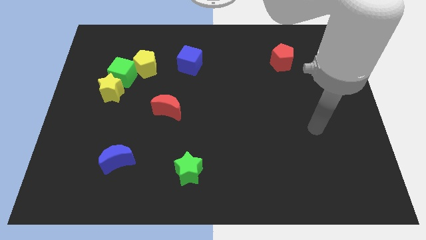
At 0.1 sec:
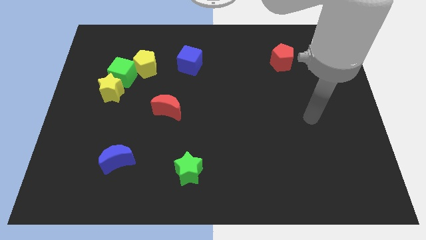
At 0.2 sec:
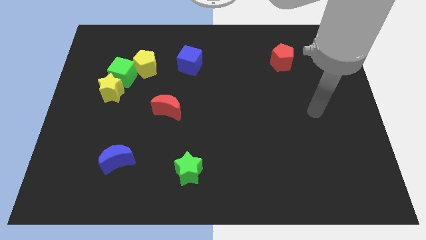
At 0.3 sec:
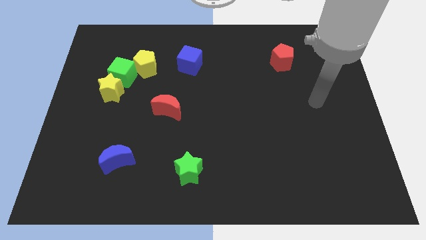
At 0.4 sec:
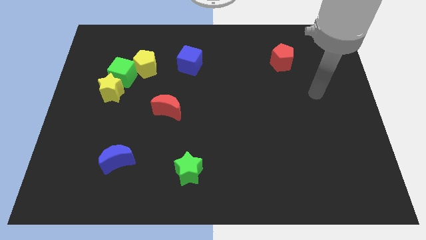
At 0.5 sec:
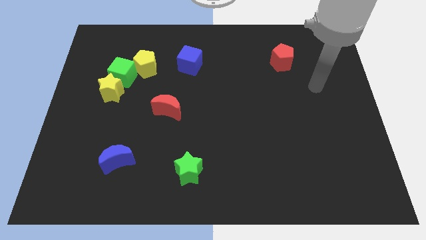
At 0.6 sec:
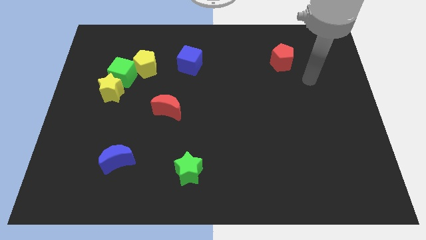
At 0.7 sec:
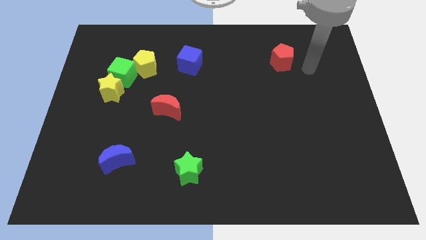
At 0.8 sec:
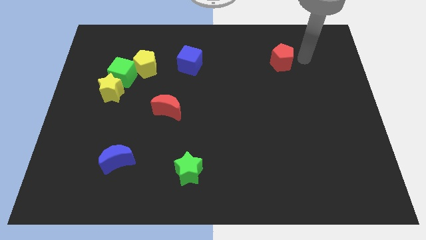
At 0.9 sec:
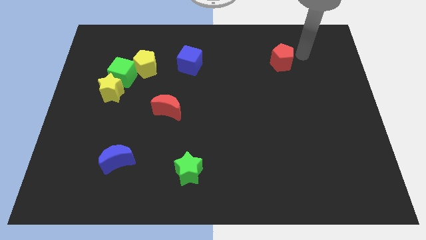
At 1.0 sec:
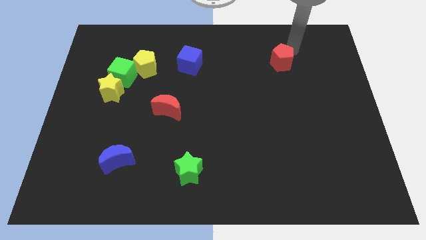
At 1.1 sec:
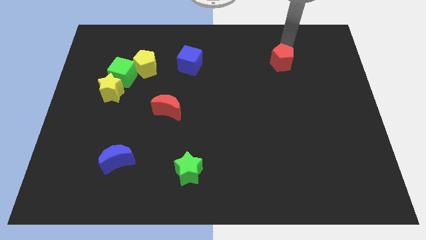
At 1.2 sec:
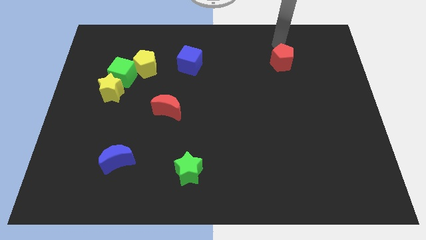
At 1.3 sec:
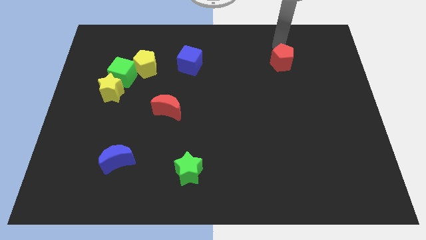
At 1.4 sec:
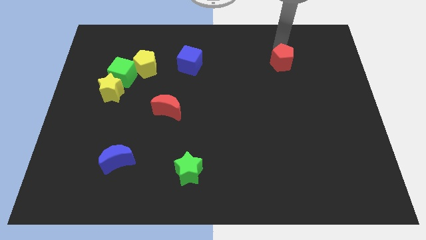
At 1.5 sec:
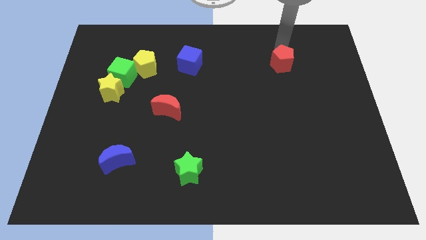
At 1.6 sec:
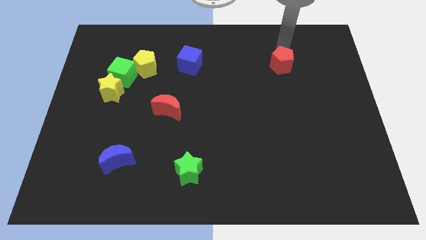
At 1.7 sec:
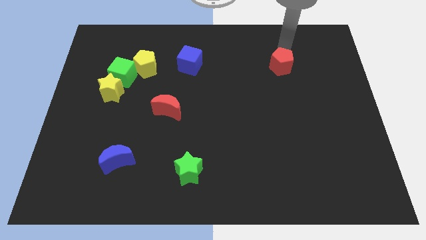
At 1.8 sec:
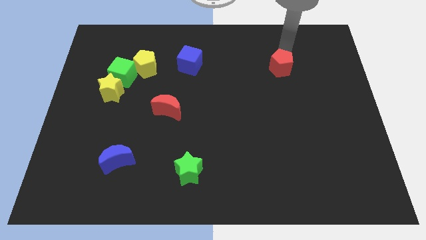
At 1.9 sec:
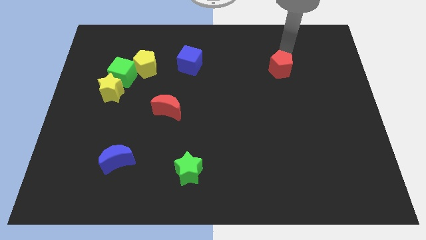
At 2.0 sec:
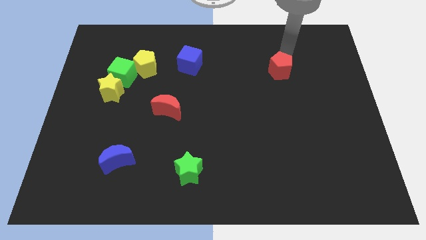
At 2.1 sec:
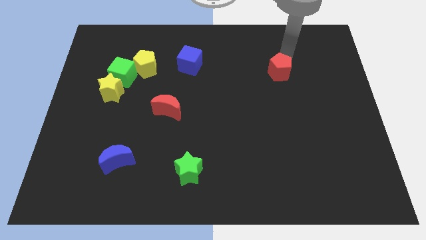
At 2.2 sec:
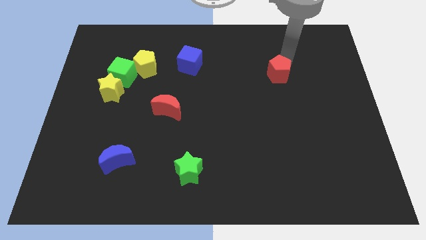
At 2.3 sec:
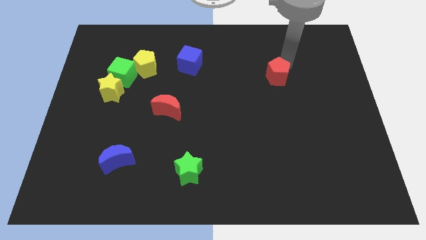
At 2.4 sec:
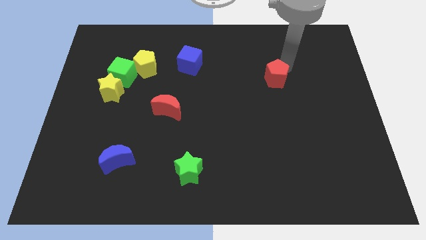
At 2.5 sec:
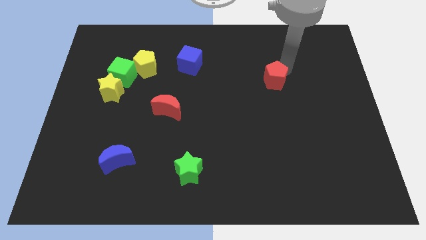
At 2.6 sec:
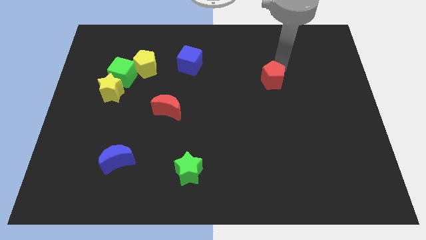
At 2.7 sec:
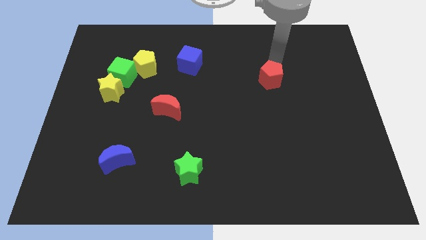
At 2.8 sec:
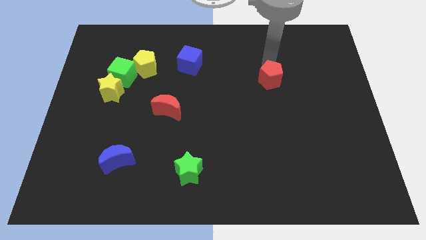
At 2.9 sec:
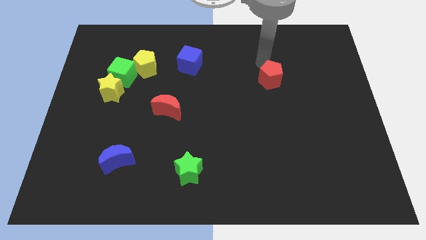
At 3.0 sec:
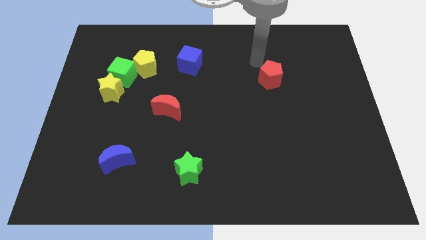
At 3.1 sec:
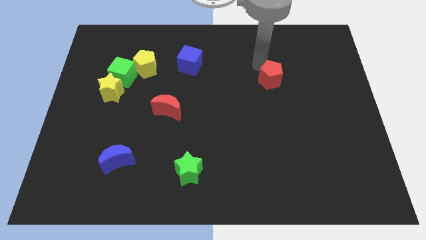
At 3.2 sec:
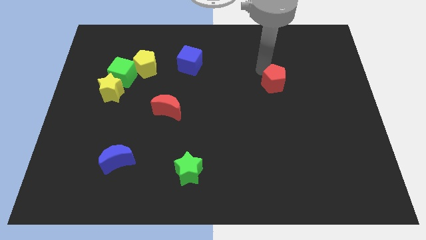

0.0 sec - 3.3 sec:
push the red pentagon down slightly

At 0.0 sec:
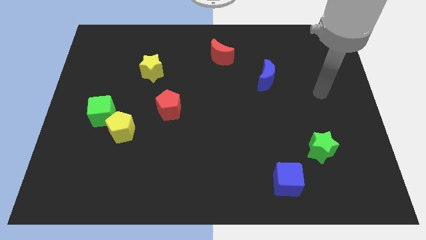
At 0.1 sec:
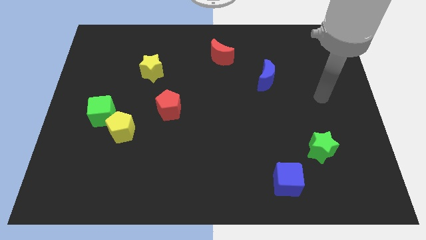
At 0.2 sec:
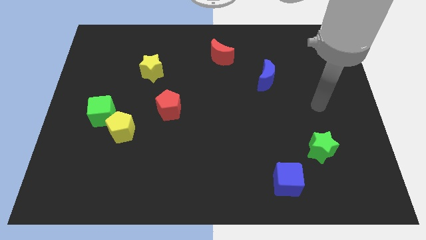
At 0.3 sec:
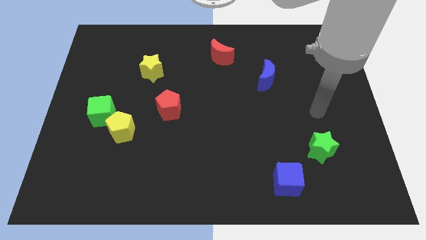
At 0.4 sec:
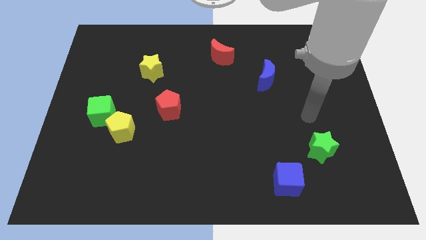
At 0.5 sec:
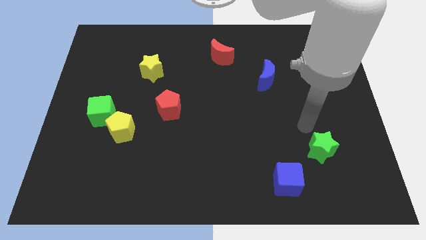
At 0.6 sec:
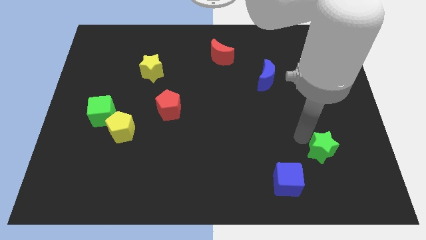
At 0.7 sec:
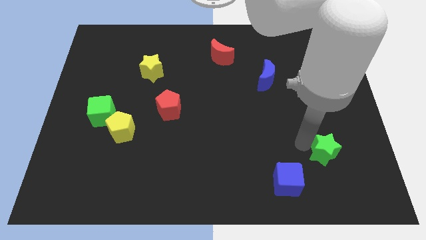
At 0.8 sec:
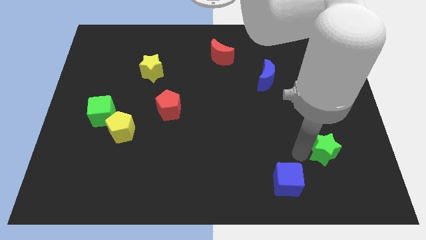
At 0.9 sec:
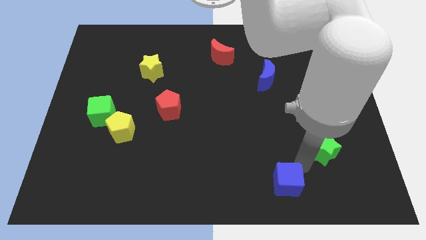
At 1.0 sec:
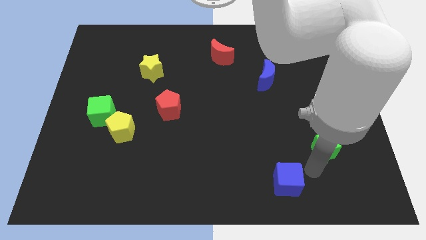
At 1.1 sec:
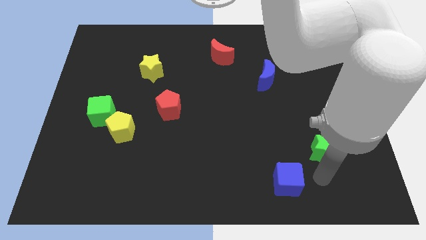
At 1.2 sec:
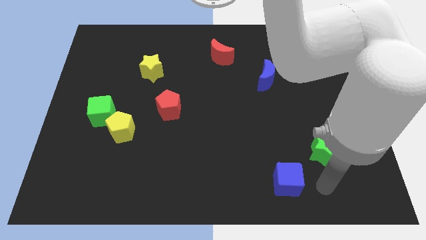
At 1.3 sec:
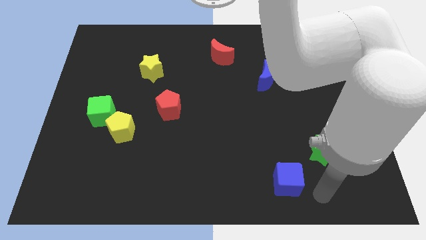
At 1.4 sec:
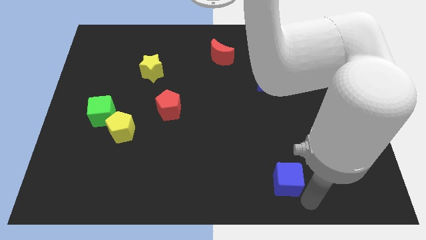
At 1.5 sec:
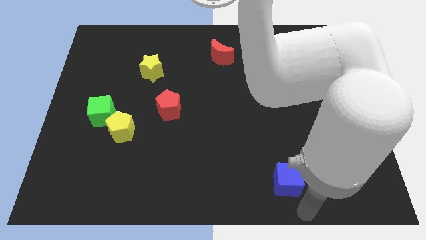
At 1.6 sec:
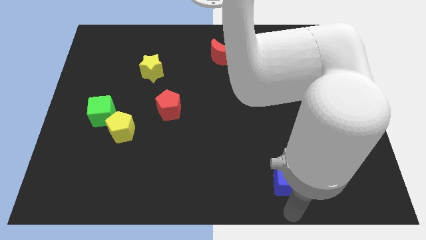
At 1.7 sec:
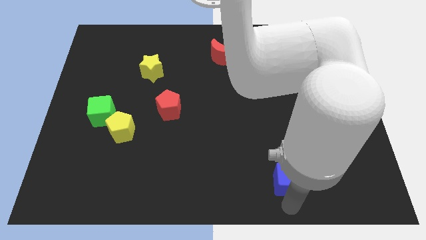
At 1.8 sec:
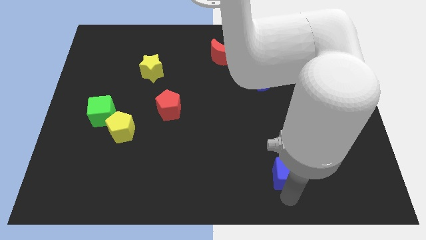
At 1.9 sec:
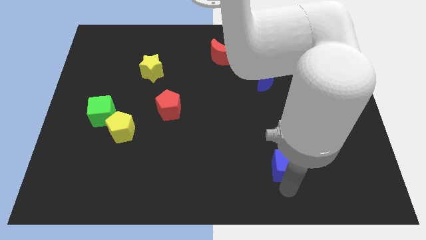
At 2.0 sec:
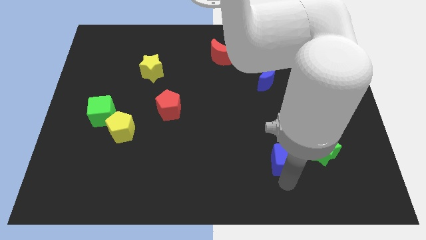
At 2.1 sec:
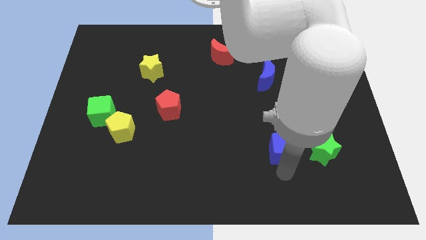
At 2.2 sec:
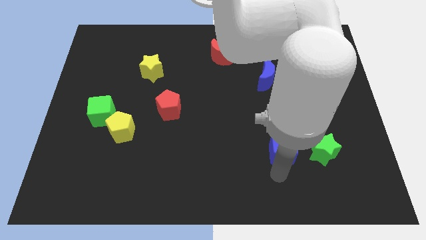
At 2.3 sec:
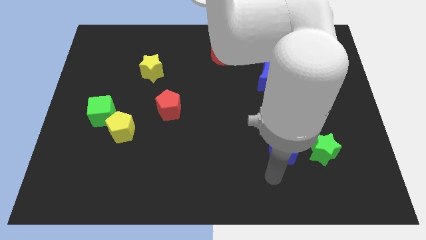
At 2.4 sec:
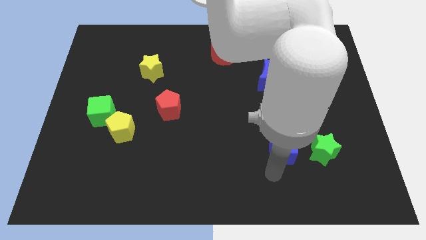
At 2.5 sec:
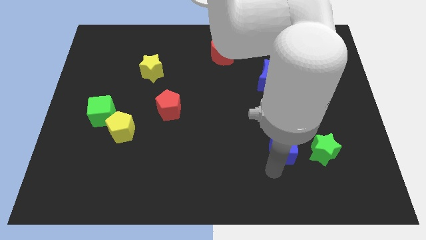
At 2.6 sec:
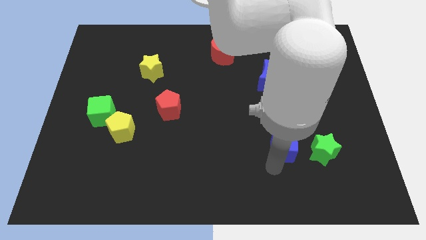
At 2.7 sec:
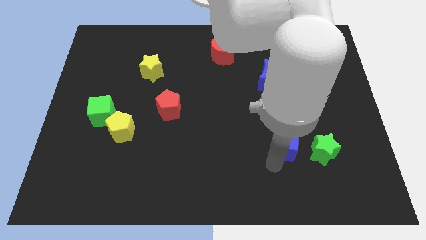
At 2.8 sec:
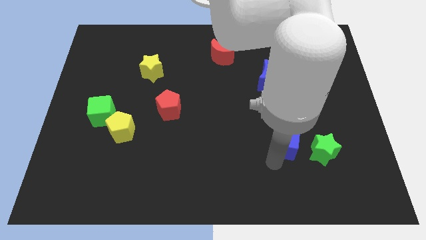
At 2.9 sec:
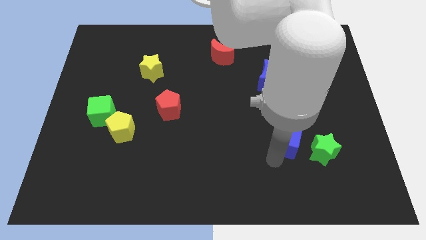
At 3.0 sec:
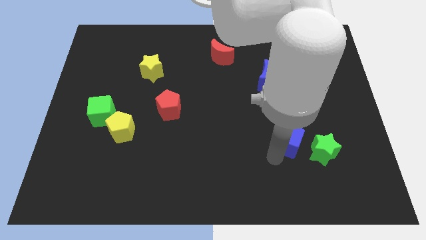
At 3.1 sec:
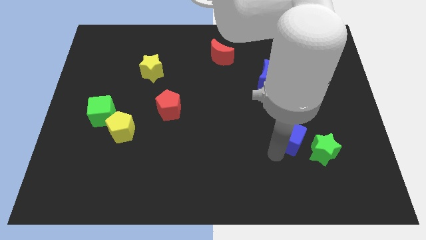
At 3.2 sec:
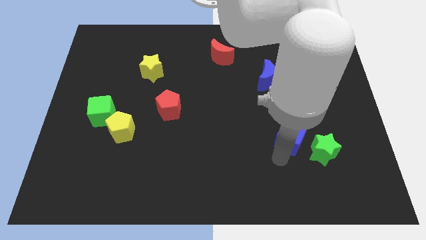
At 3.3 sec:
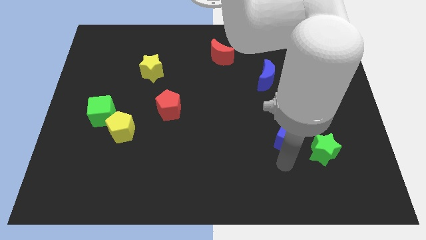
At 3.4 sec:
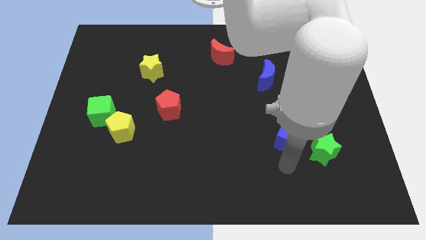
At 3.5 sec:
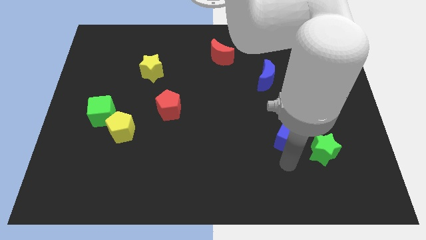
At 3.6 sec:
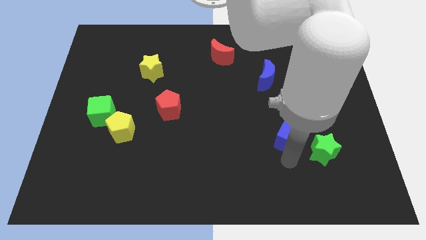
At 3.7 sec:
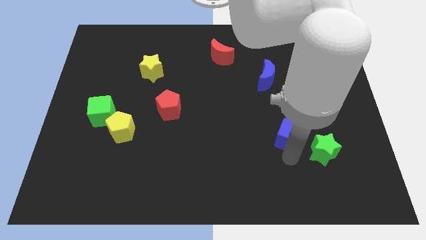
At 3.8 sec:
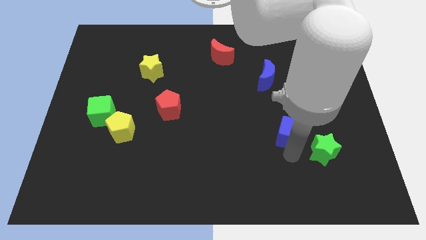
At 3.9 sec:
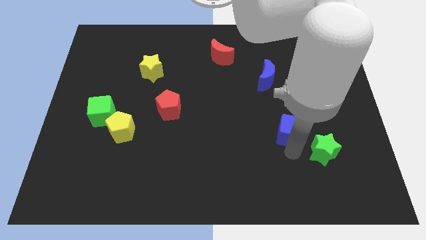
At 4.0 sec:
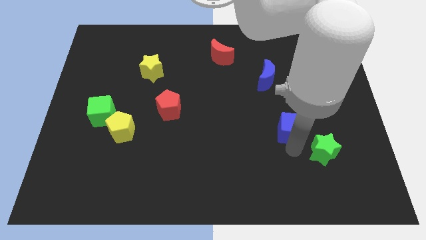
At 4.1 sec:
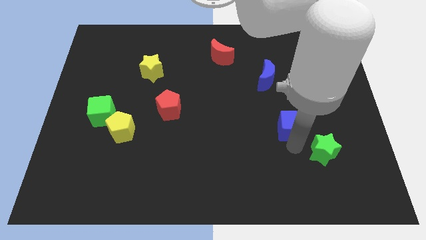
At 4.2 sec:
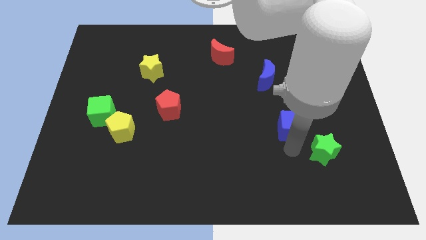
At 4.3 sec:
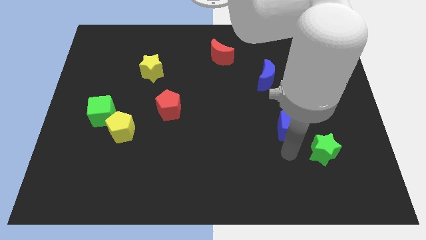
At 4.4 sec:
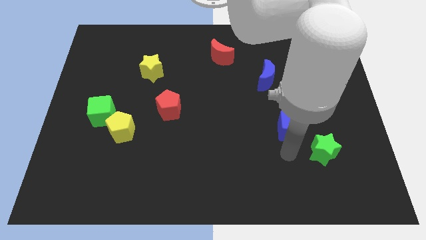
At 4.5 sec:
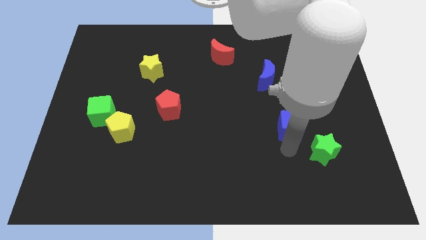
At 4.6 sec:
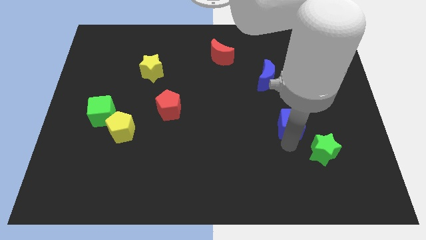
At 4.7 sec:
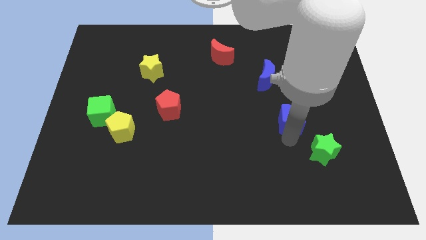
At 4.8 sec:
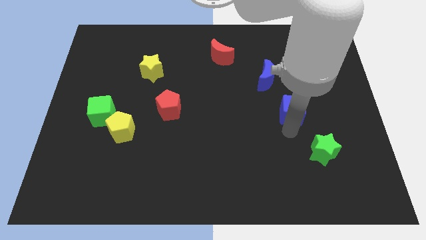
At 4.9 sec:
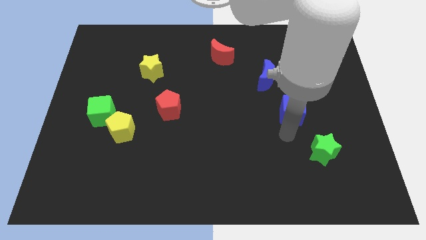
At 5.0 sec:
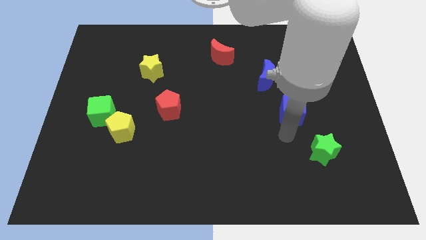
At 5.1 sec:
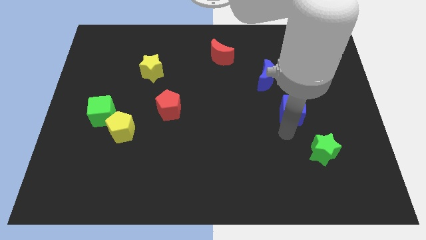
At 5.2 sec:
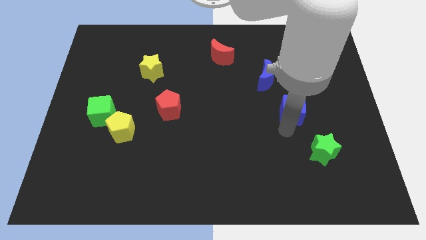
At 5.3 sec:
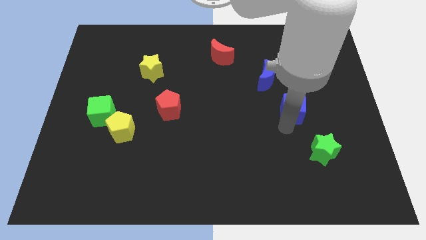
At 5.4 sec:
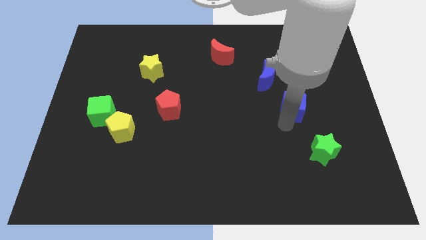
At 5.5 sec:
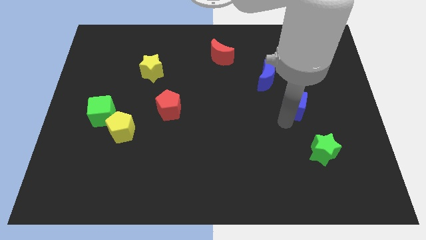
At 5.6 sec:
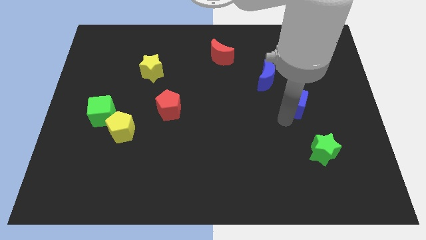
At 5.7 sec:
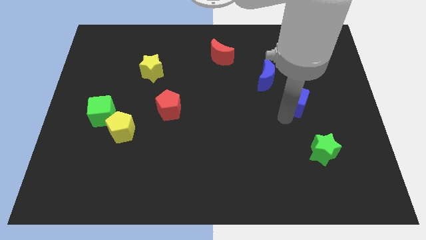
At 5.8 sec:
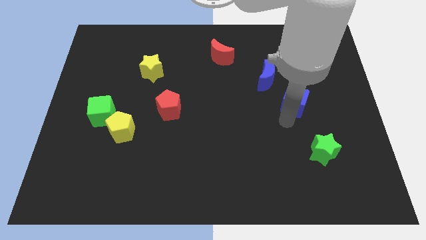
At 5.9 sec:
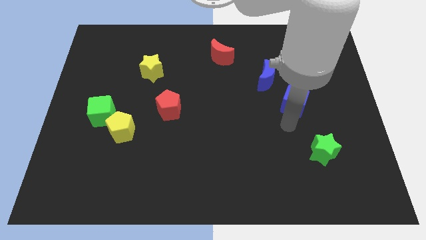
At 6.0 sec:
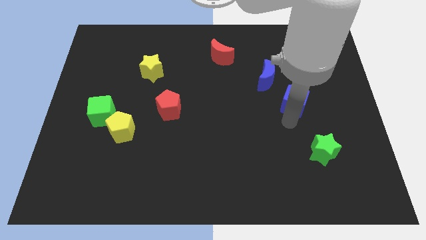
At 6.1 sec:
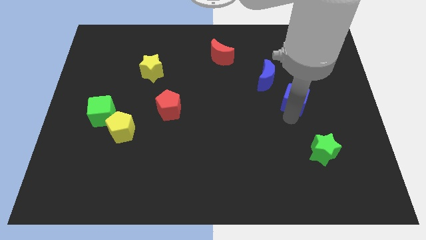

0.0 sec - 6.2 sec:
push the blue cube up
